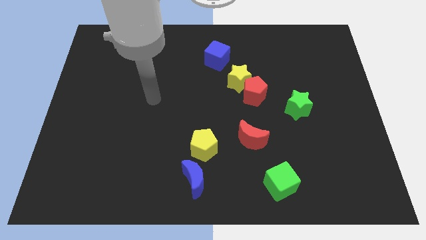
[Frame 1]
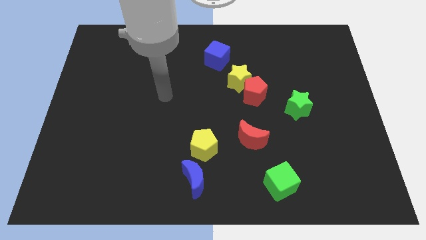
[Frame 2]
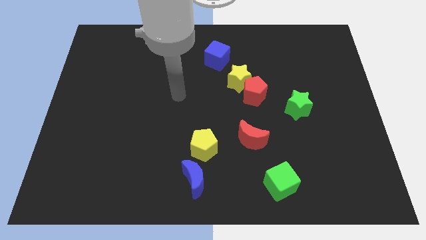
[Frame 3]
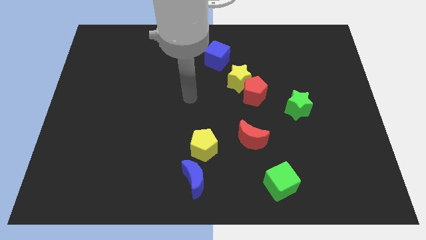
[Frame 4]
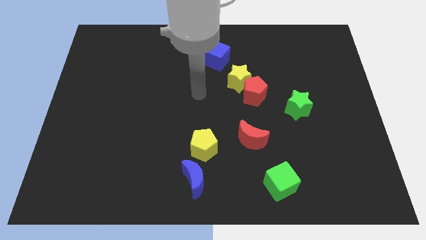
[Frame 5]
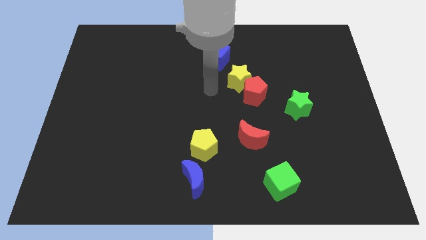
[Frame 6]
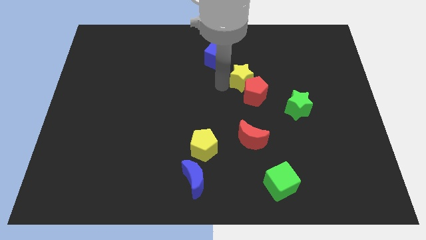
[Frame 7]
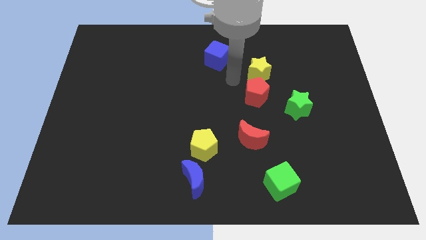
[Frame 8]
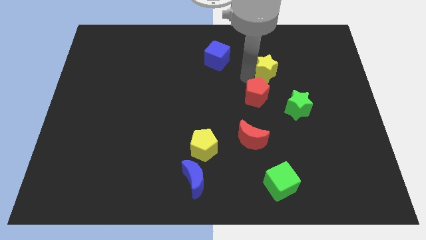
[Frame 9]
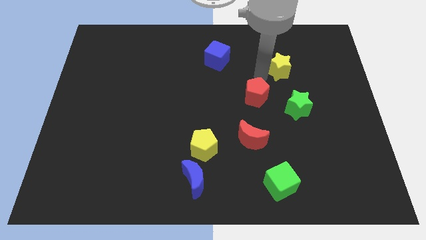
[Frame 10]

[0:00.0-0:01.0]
pull the red pentagon apart from the yellow star

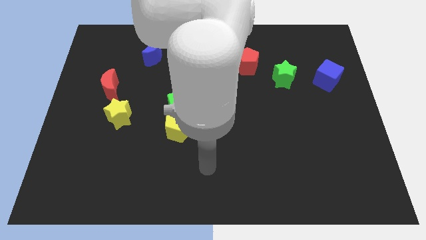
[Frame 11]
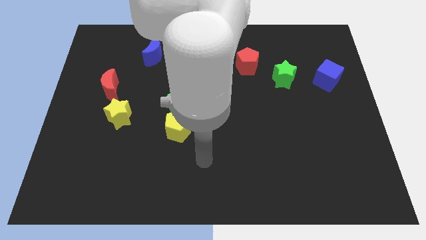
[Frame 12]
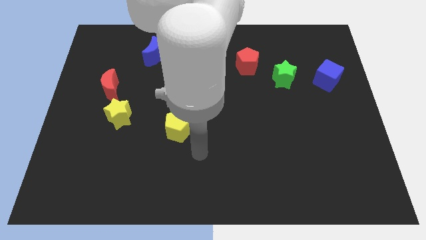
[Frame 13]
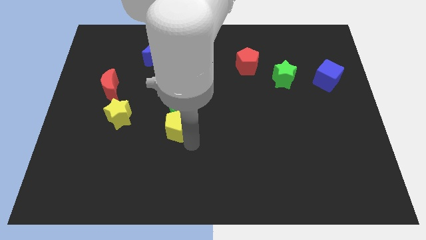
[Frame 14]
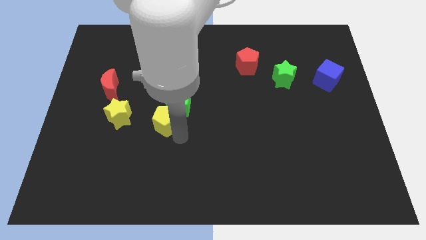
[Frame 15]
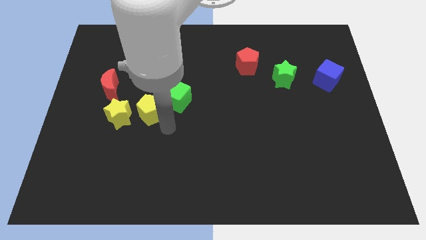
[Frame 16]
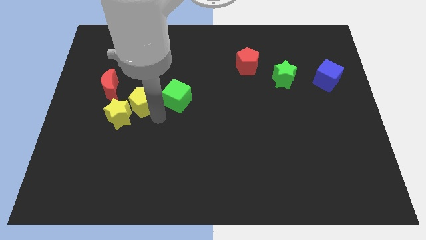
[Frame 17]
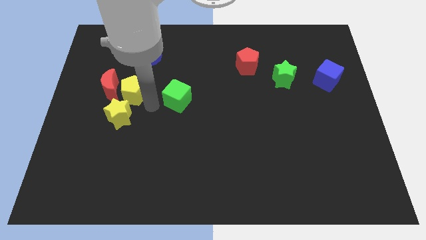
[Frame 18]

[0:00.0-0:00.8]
pull the green cube apart from the yellow pentagon

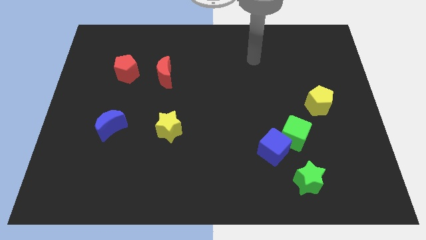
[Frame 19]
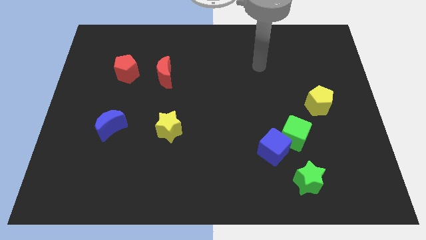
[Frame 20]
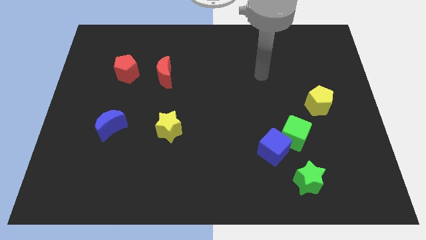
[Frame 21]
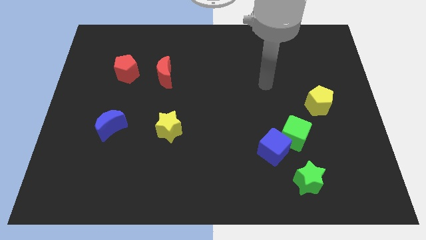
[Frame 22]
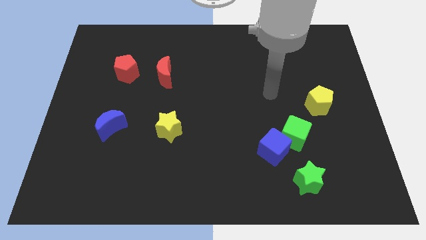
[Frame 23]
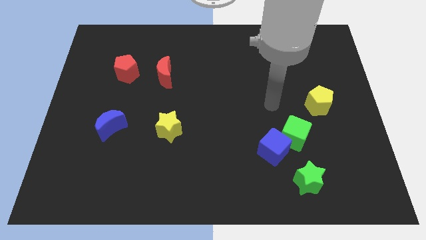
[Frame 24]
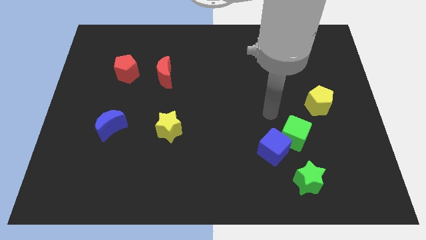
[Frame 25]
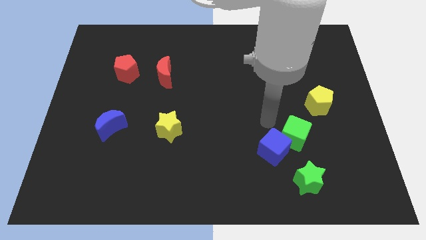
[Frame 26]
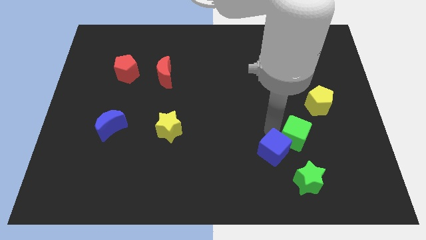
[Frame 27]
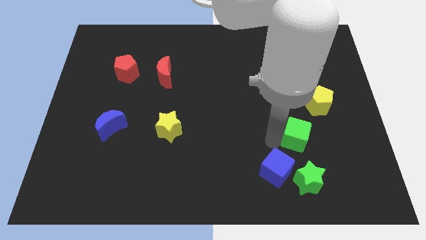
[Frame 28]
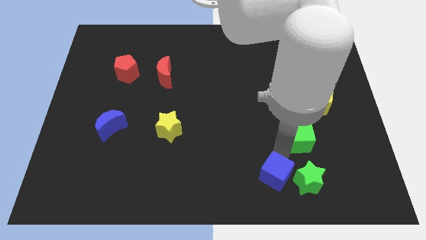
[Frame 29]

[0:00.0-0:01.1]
pull the green cube apart from the blue cube

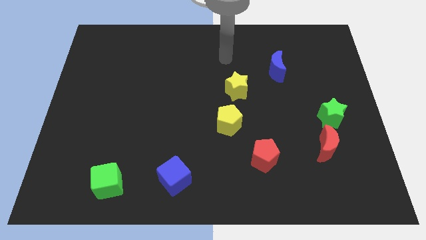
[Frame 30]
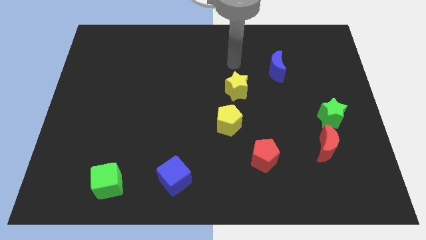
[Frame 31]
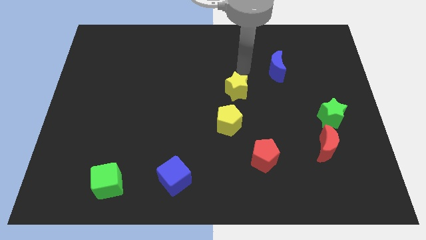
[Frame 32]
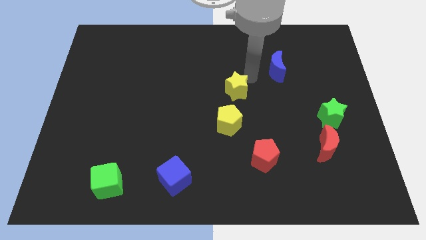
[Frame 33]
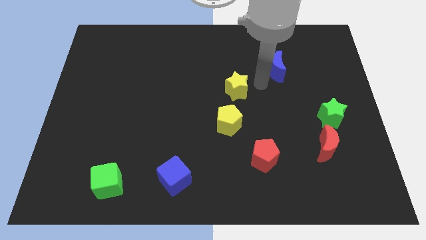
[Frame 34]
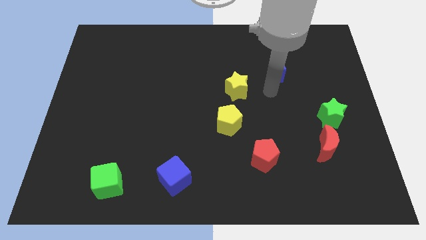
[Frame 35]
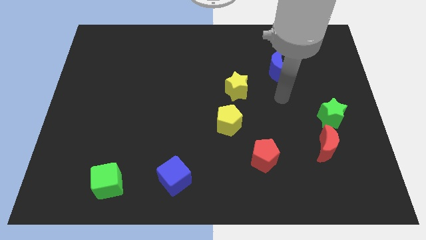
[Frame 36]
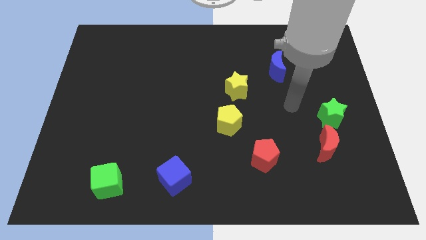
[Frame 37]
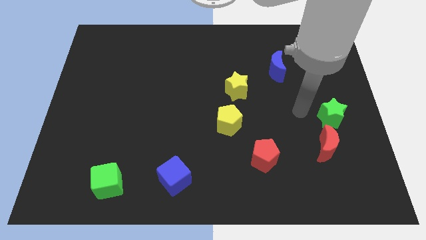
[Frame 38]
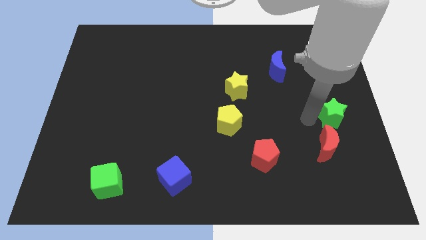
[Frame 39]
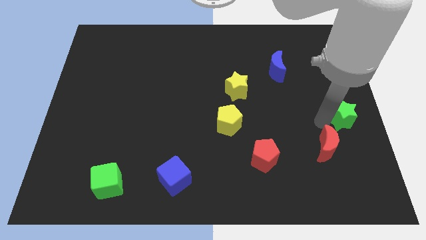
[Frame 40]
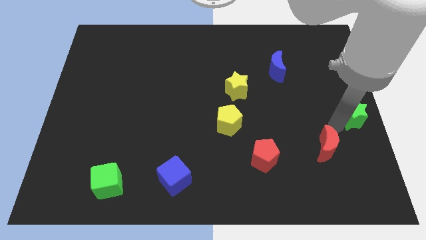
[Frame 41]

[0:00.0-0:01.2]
separate the red moon from the green star

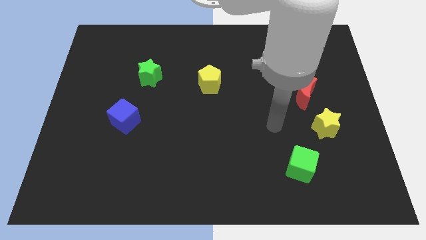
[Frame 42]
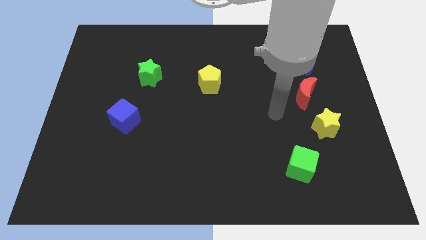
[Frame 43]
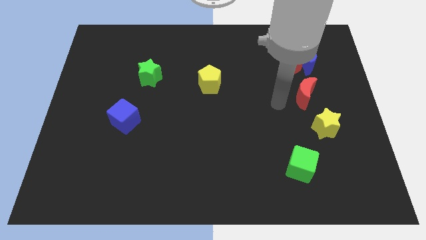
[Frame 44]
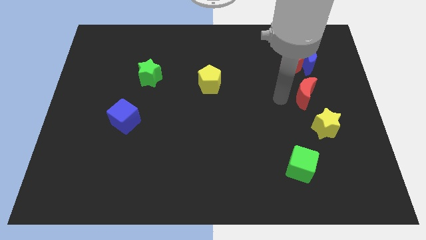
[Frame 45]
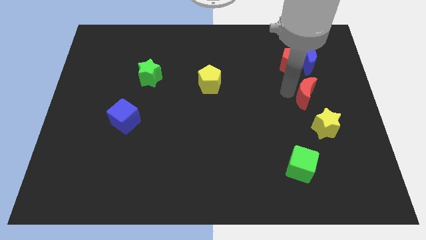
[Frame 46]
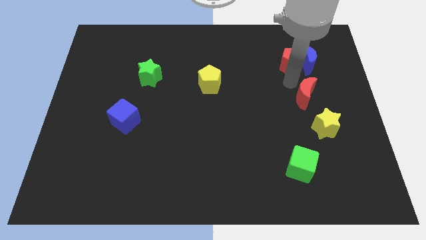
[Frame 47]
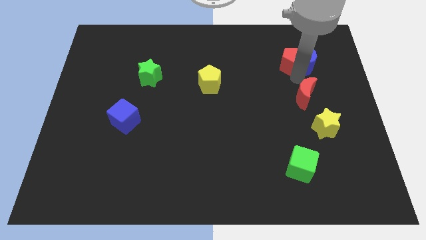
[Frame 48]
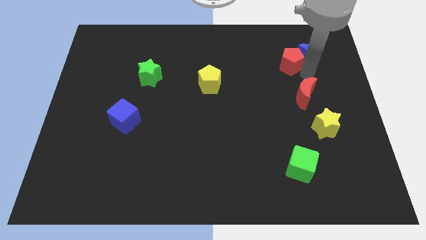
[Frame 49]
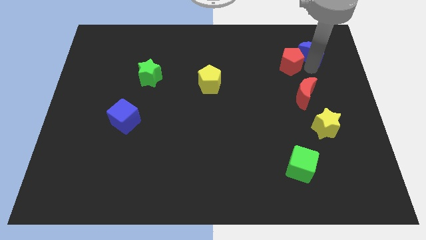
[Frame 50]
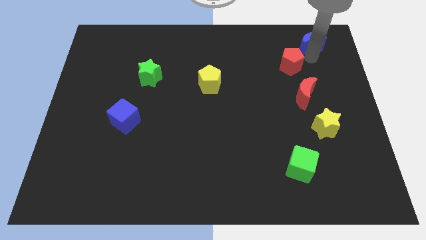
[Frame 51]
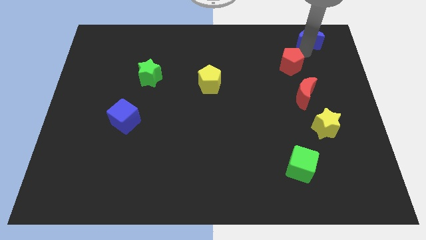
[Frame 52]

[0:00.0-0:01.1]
move the red pentagon away from the blue moon

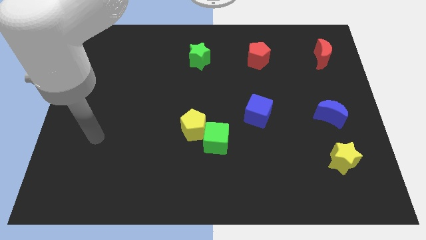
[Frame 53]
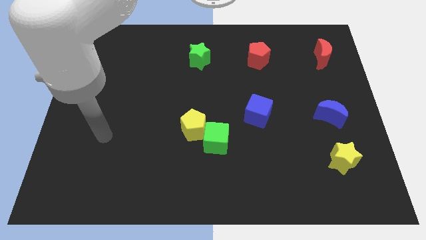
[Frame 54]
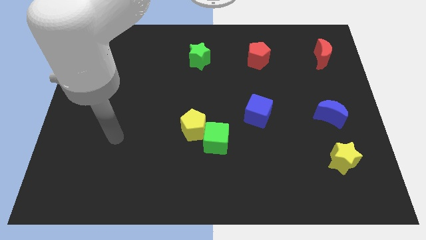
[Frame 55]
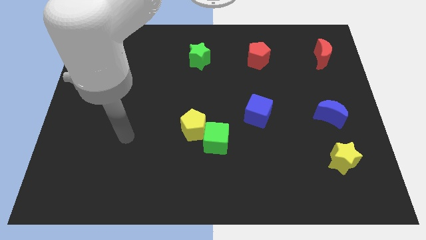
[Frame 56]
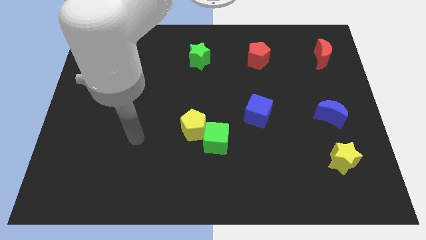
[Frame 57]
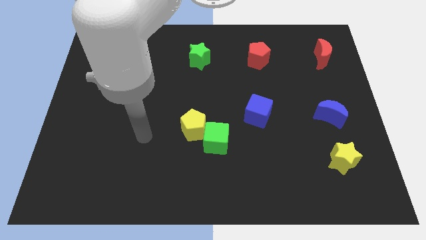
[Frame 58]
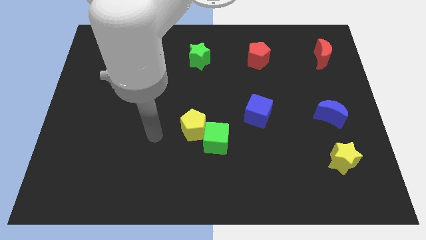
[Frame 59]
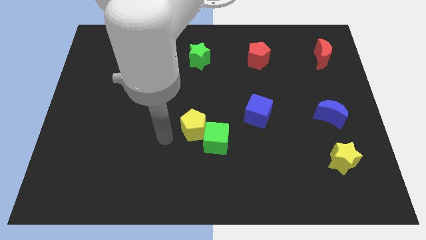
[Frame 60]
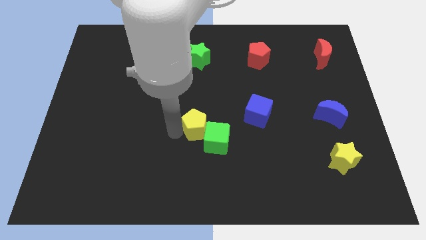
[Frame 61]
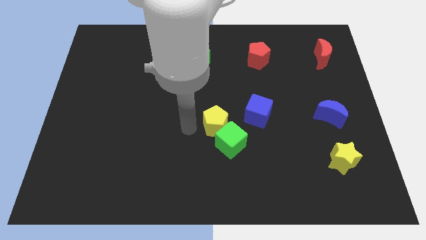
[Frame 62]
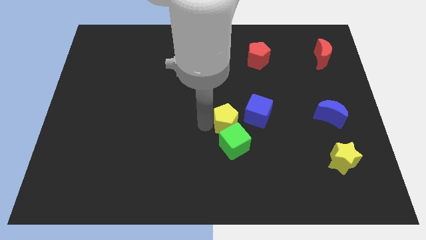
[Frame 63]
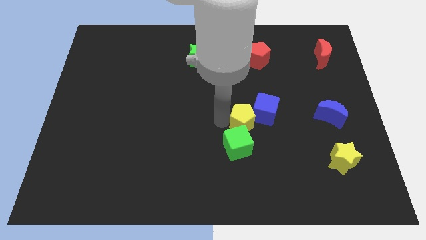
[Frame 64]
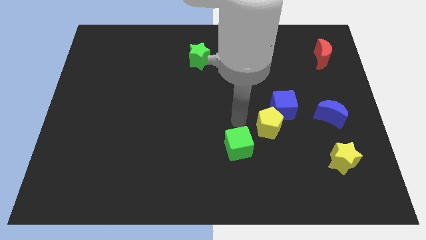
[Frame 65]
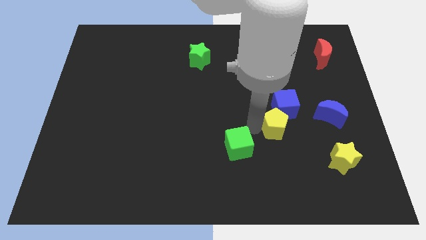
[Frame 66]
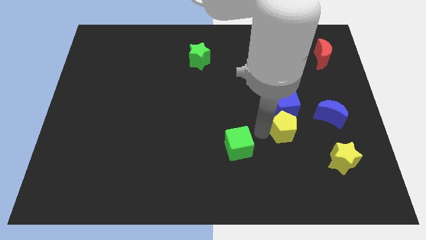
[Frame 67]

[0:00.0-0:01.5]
separate the green cube from the yellow pentagon

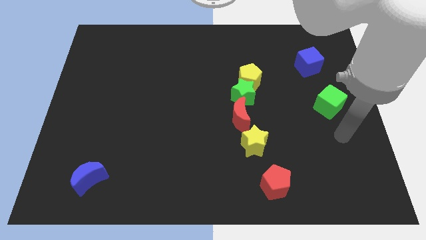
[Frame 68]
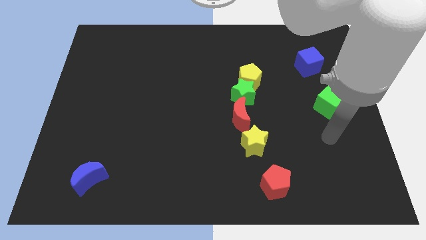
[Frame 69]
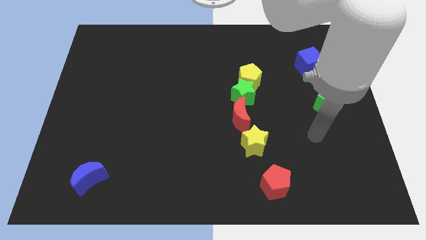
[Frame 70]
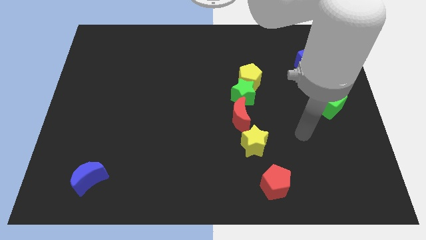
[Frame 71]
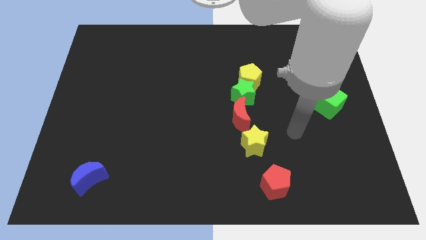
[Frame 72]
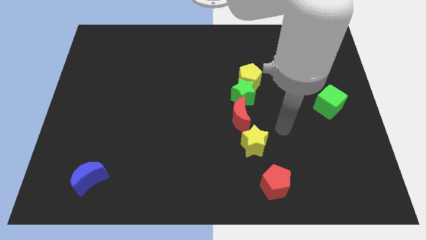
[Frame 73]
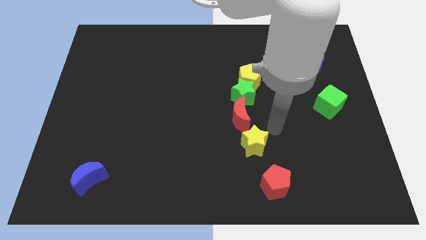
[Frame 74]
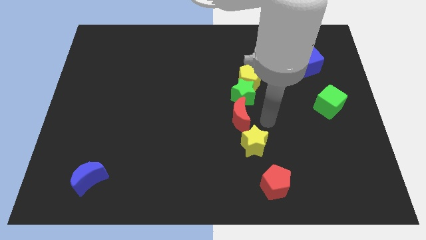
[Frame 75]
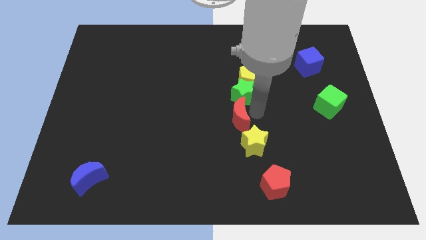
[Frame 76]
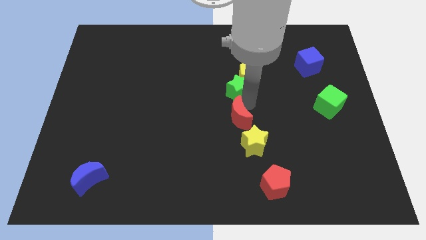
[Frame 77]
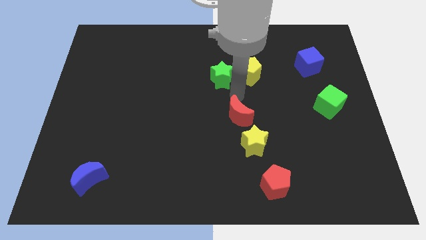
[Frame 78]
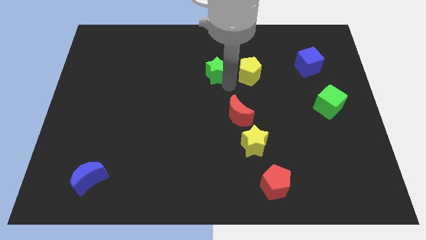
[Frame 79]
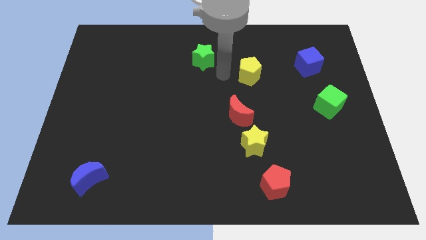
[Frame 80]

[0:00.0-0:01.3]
pull the yellow pentagon apart from the green star

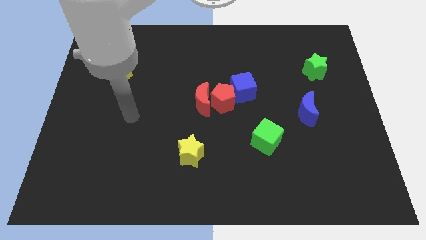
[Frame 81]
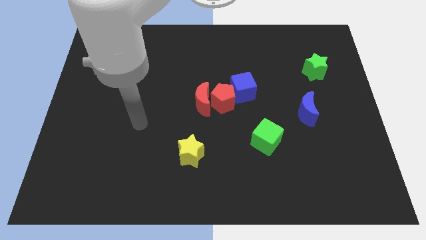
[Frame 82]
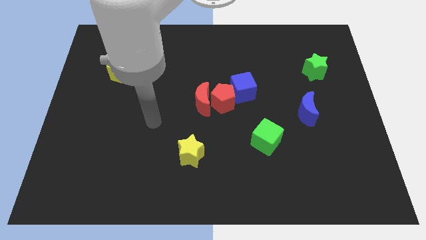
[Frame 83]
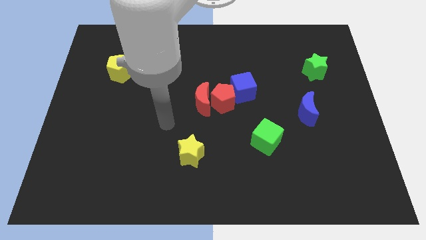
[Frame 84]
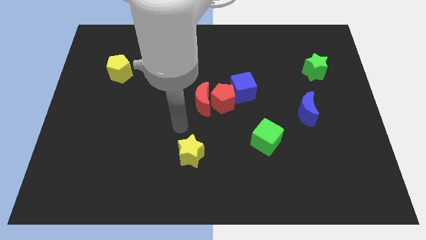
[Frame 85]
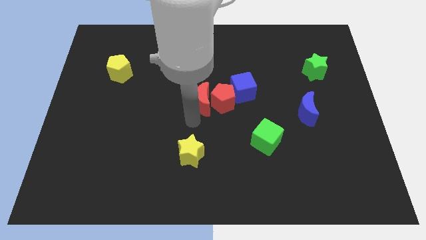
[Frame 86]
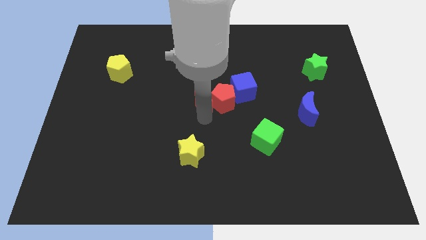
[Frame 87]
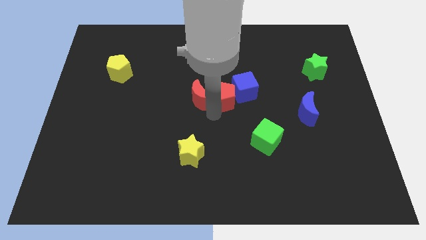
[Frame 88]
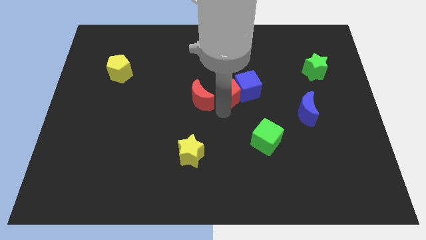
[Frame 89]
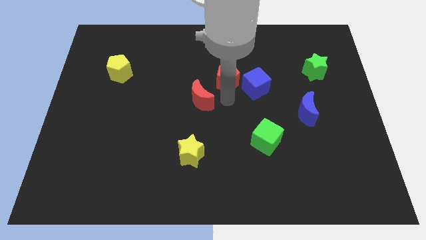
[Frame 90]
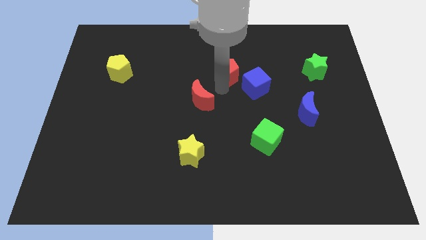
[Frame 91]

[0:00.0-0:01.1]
move the red moon away from the red pentagon

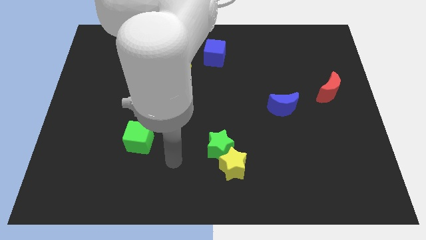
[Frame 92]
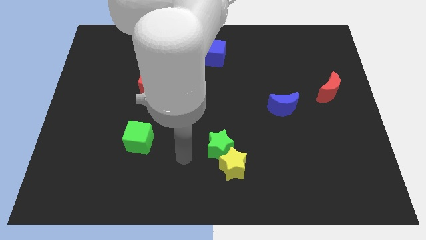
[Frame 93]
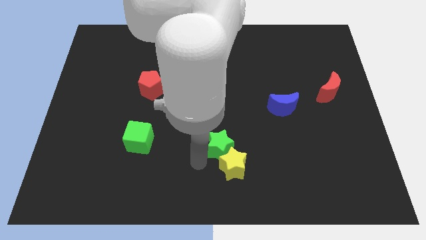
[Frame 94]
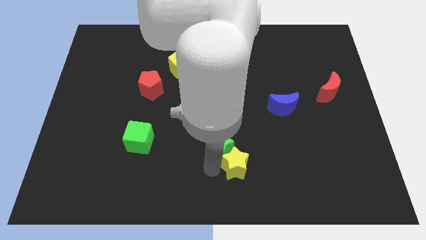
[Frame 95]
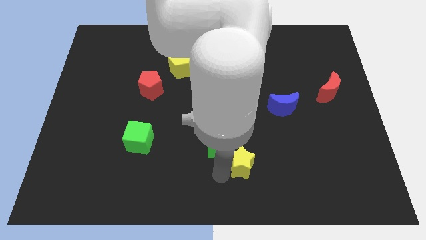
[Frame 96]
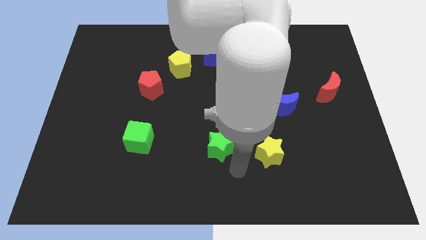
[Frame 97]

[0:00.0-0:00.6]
pull the green star apart from the yellow star
